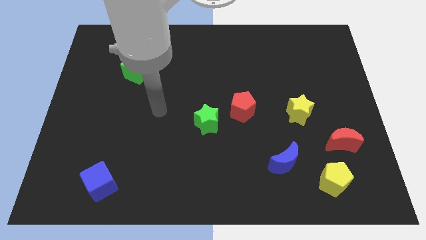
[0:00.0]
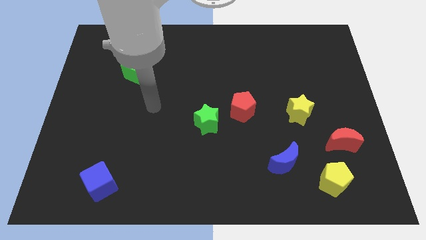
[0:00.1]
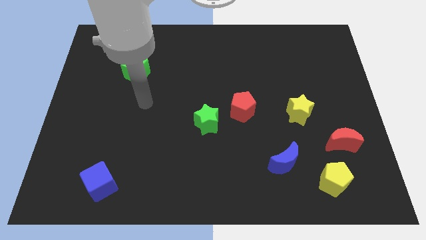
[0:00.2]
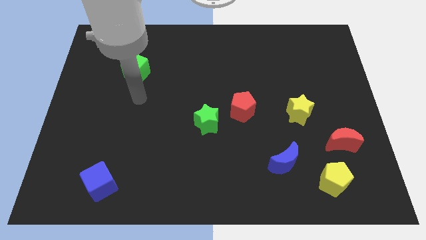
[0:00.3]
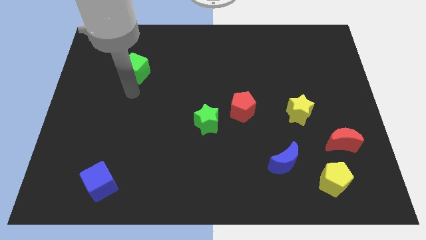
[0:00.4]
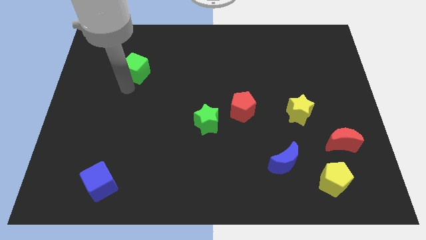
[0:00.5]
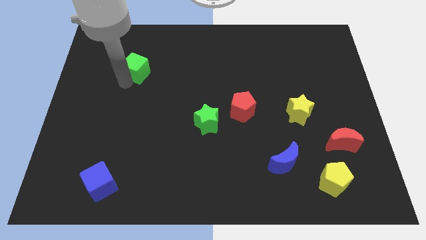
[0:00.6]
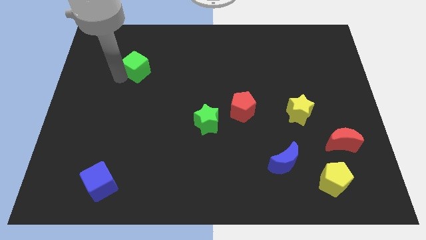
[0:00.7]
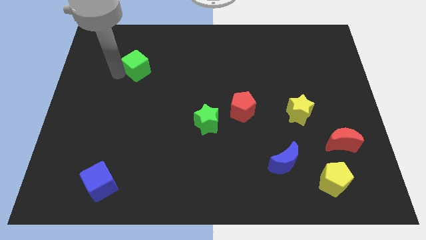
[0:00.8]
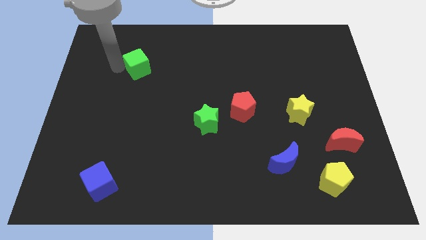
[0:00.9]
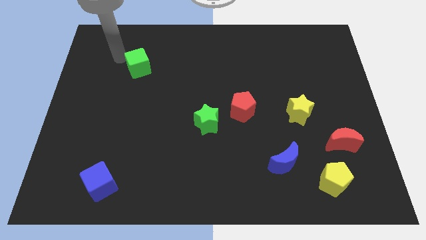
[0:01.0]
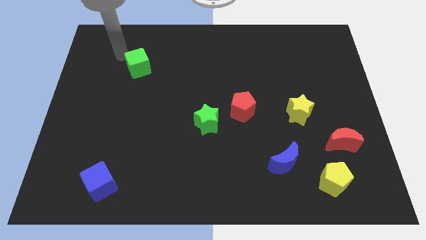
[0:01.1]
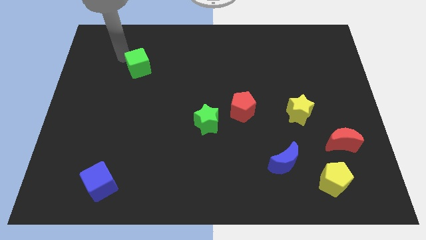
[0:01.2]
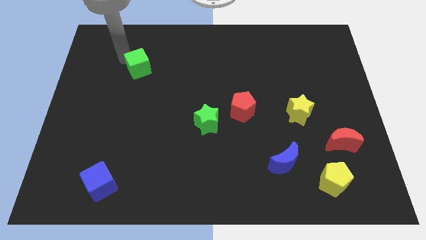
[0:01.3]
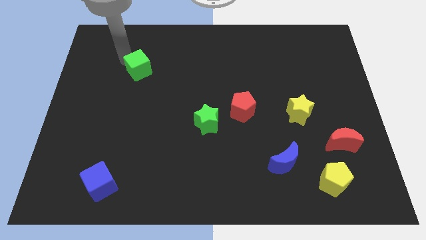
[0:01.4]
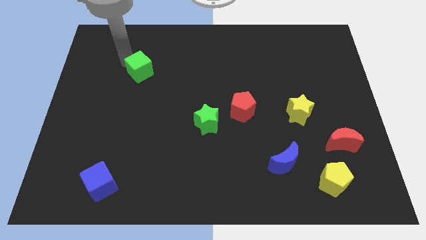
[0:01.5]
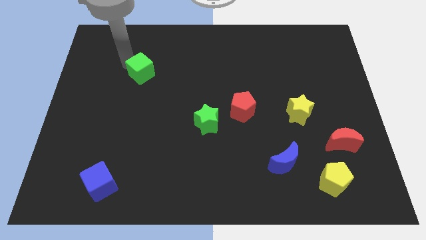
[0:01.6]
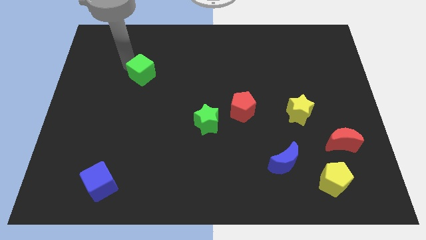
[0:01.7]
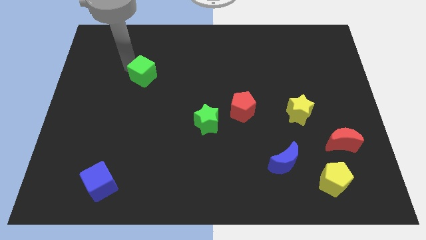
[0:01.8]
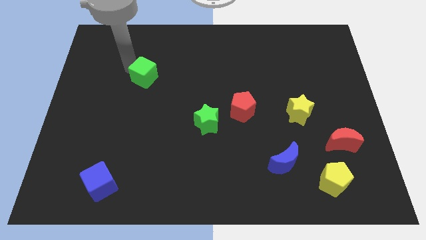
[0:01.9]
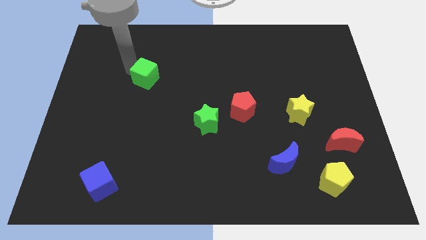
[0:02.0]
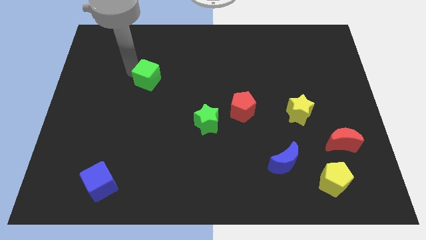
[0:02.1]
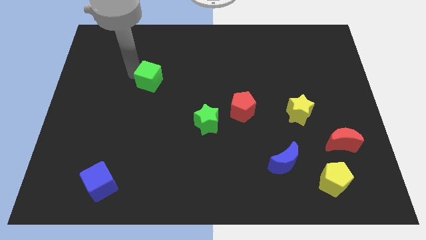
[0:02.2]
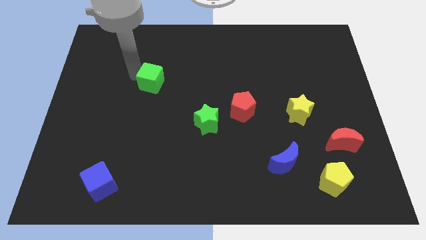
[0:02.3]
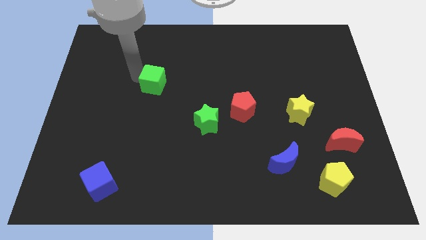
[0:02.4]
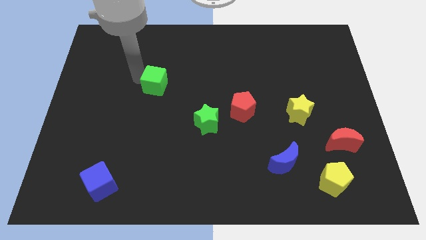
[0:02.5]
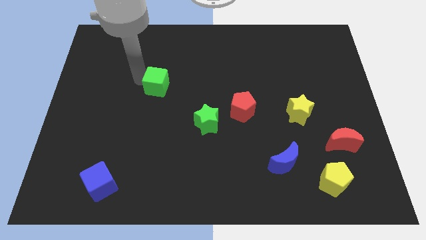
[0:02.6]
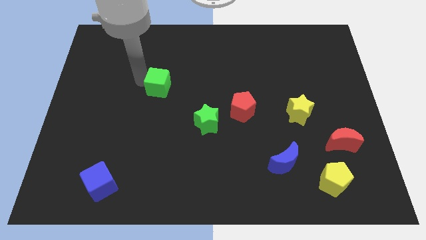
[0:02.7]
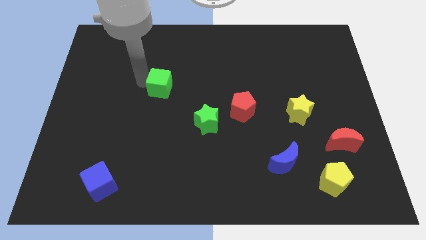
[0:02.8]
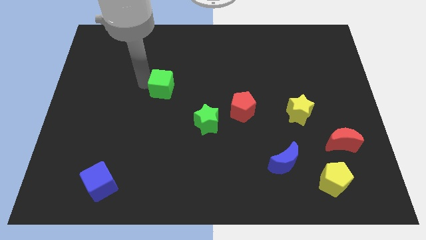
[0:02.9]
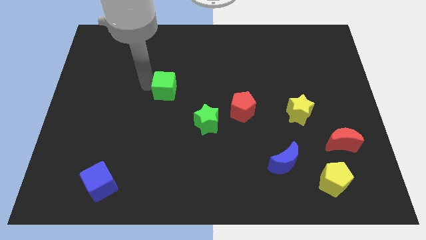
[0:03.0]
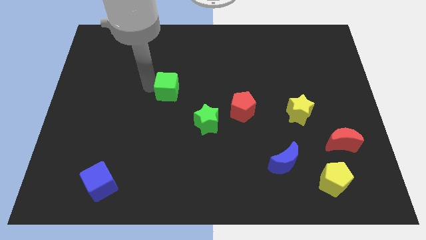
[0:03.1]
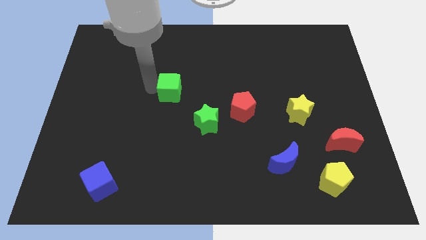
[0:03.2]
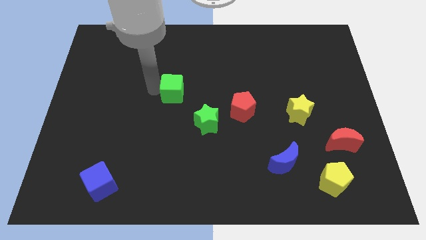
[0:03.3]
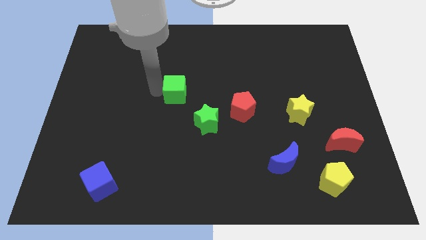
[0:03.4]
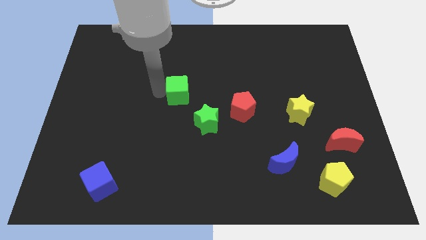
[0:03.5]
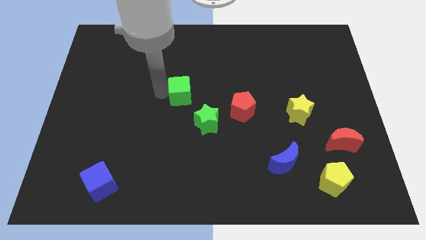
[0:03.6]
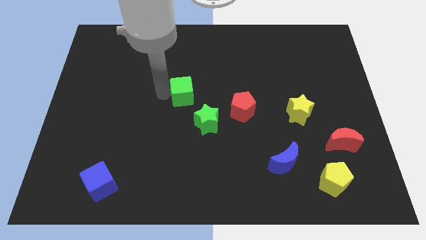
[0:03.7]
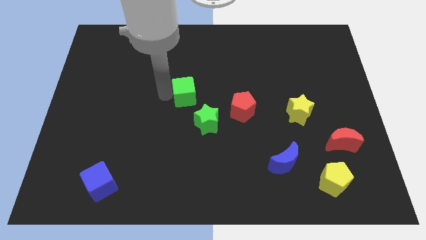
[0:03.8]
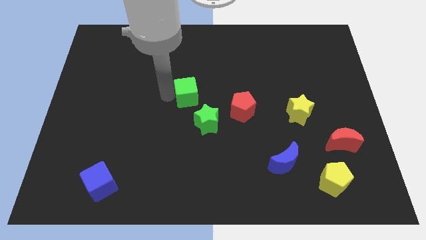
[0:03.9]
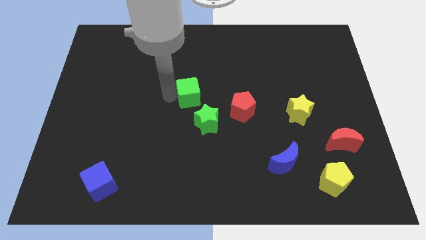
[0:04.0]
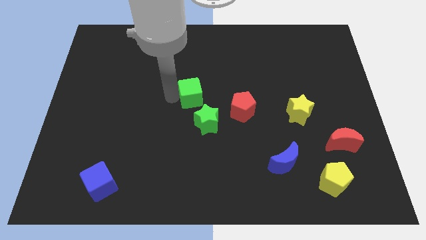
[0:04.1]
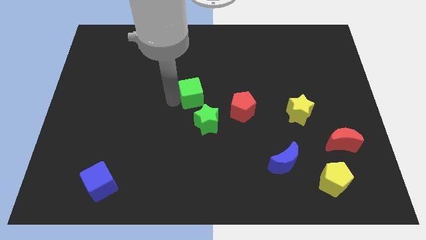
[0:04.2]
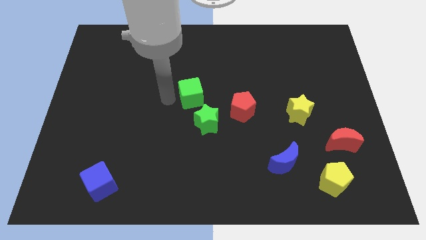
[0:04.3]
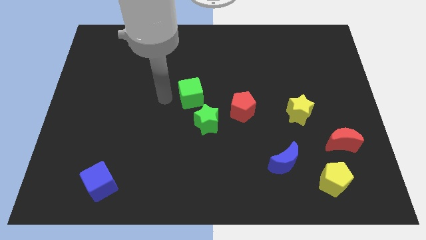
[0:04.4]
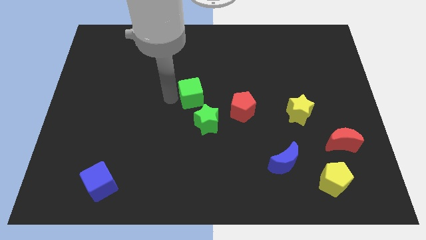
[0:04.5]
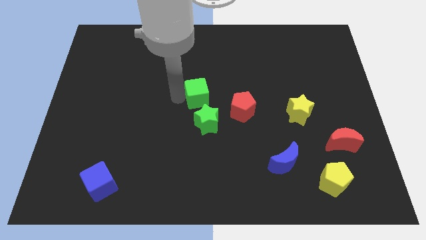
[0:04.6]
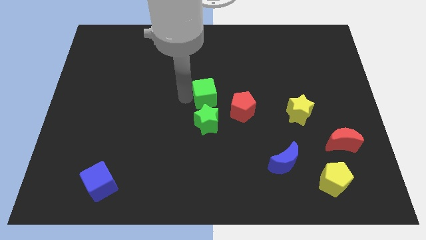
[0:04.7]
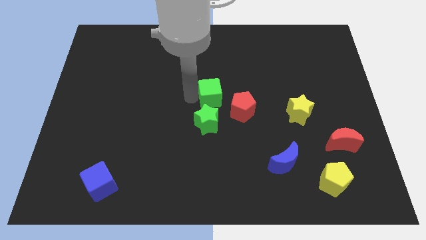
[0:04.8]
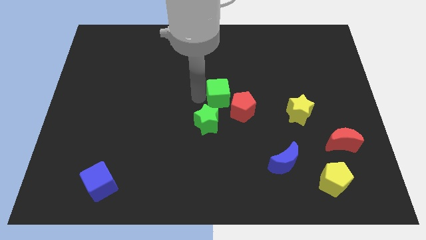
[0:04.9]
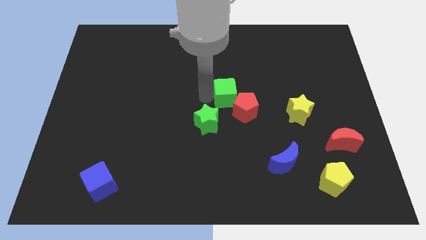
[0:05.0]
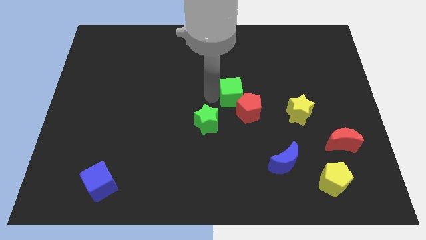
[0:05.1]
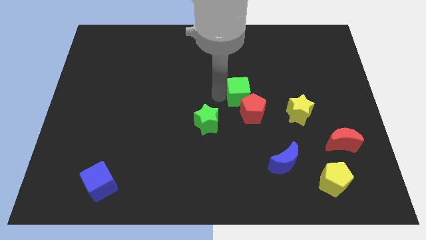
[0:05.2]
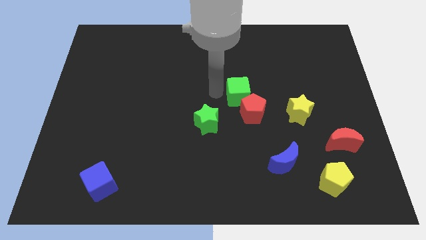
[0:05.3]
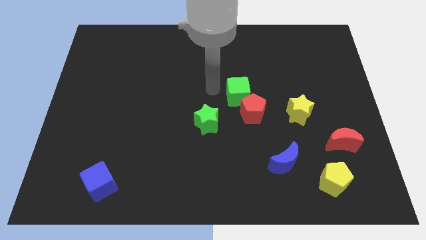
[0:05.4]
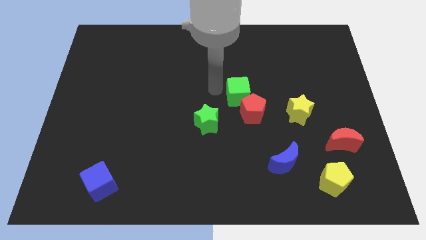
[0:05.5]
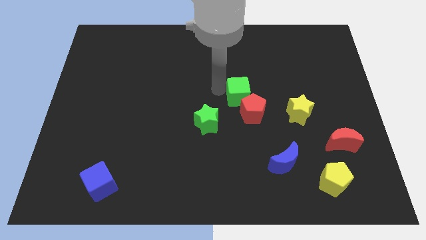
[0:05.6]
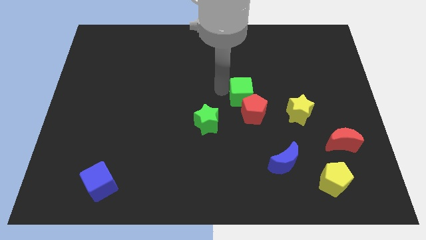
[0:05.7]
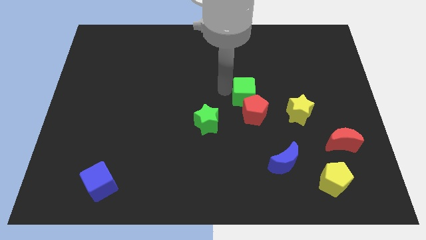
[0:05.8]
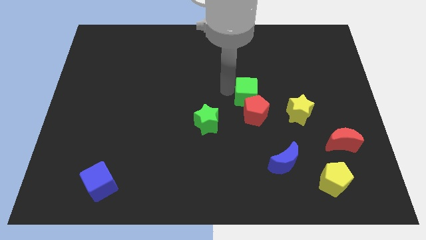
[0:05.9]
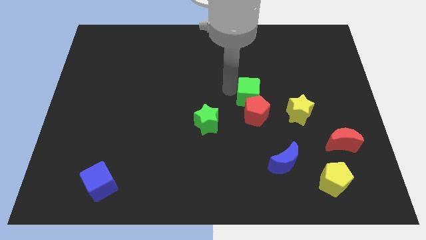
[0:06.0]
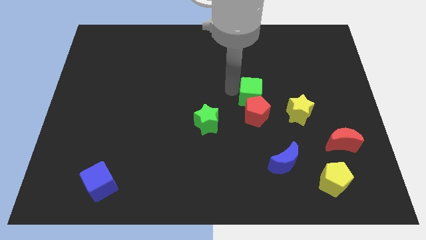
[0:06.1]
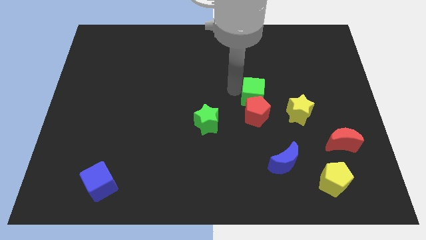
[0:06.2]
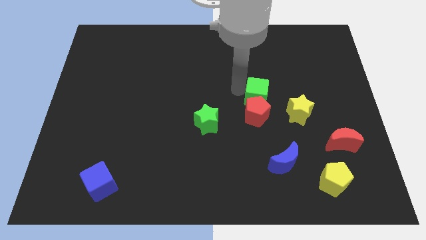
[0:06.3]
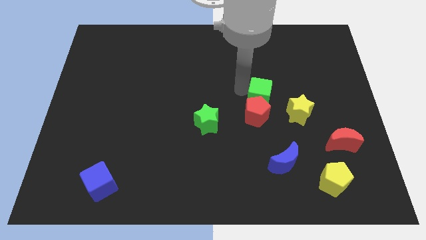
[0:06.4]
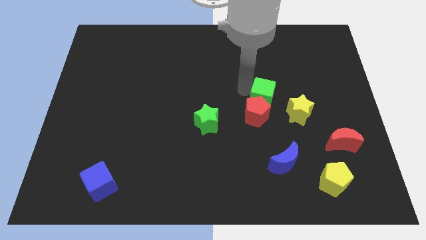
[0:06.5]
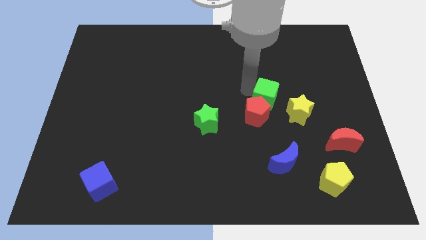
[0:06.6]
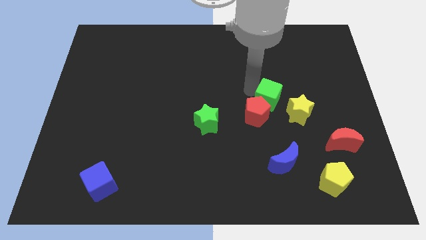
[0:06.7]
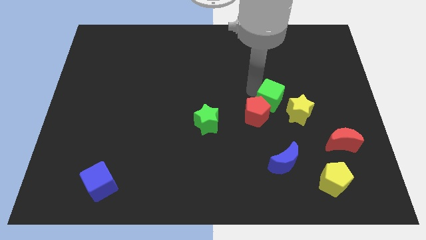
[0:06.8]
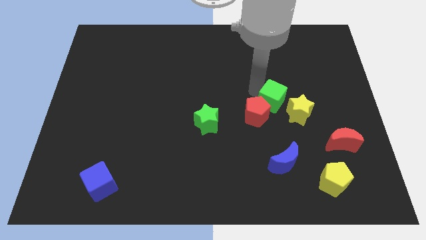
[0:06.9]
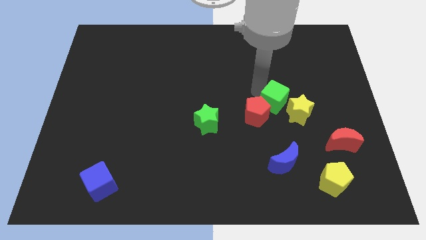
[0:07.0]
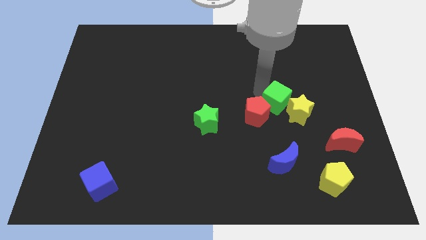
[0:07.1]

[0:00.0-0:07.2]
put the green cube to the yellow star

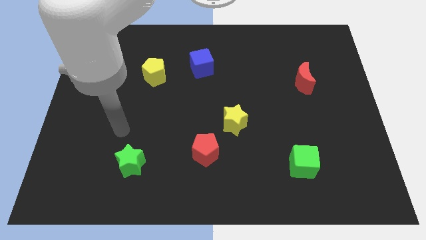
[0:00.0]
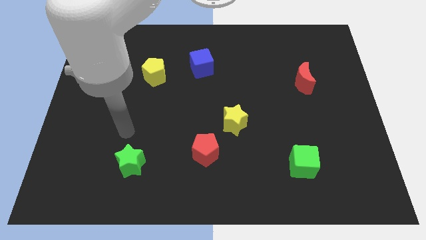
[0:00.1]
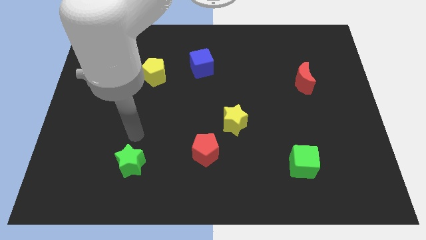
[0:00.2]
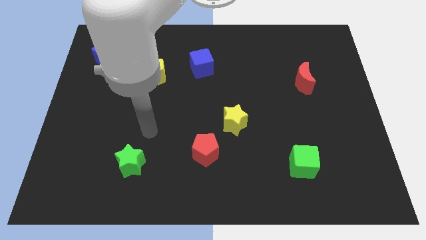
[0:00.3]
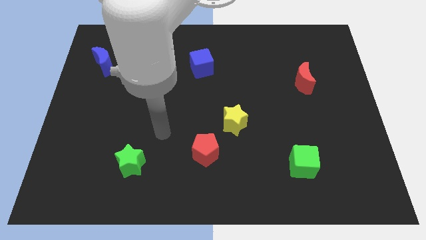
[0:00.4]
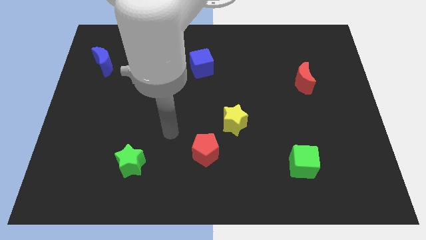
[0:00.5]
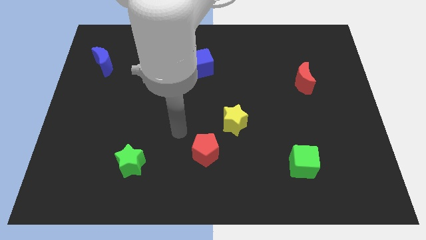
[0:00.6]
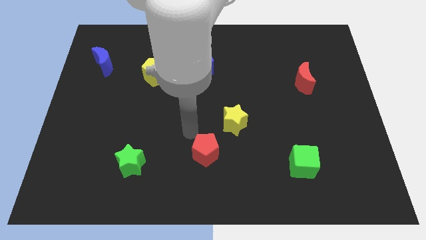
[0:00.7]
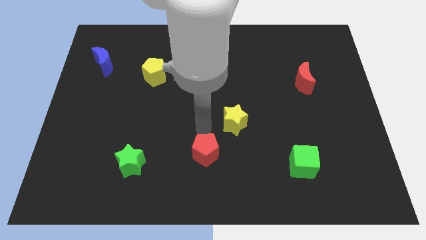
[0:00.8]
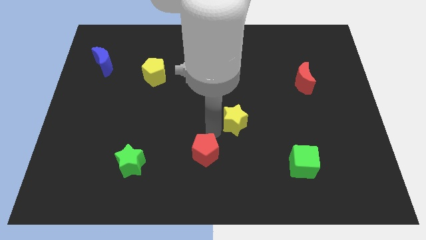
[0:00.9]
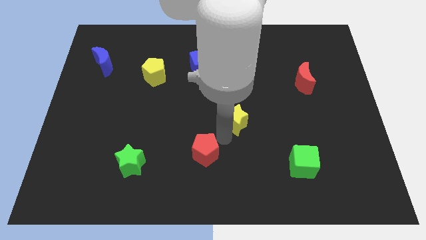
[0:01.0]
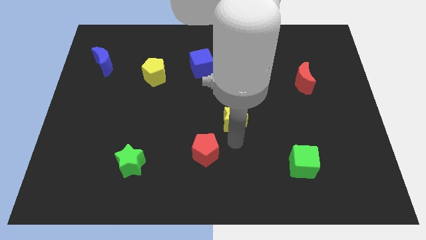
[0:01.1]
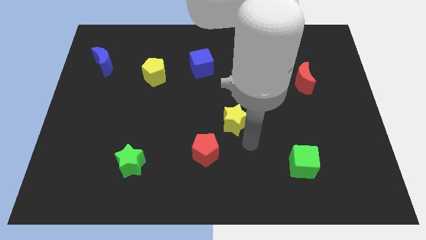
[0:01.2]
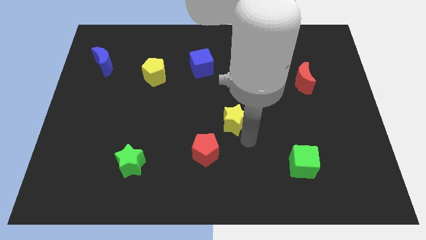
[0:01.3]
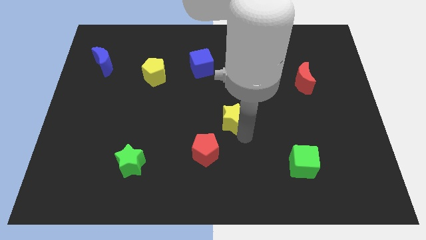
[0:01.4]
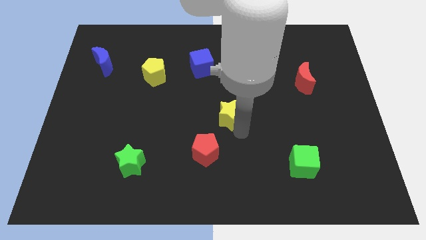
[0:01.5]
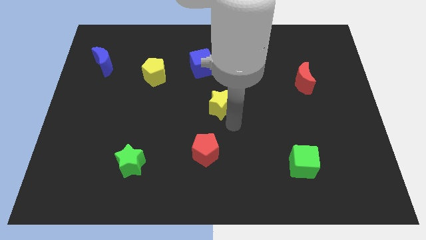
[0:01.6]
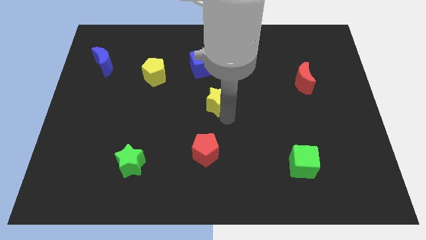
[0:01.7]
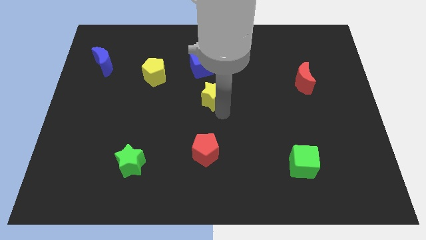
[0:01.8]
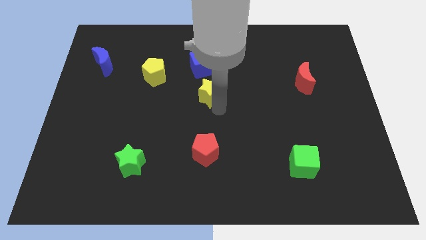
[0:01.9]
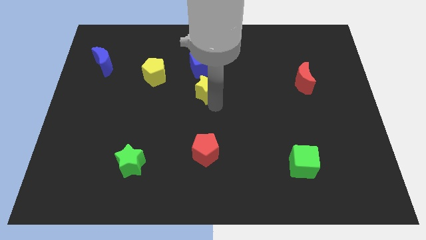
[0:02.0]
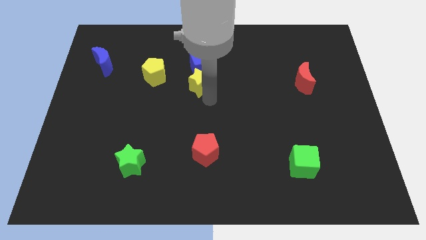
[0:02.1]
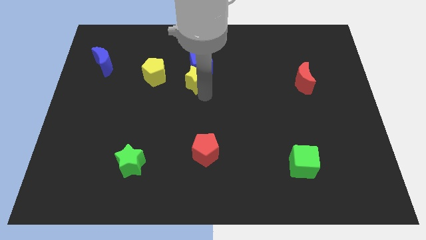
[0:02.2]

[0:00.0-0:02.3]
move the yellow star towards the blue cube
